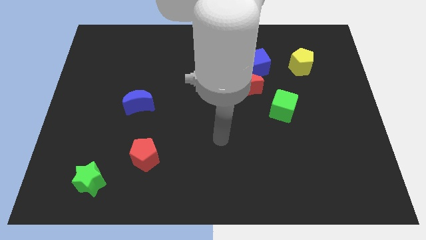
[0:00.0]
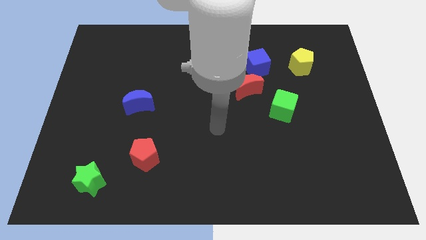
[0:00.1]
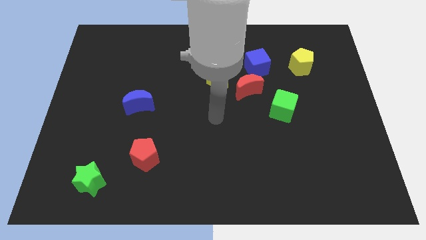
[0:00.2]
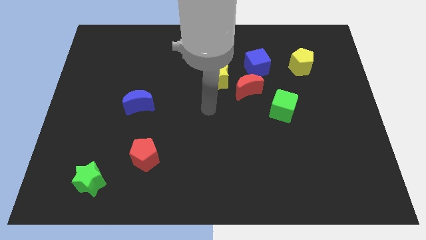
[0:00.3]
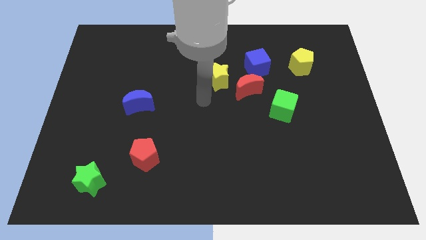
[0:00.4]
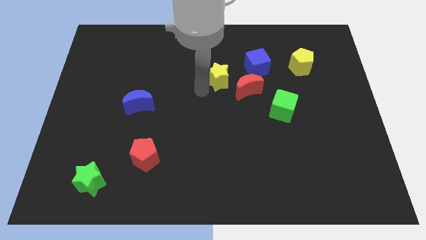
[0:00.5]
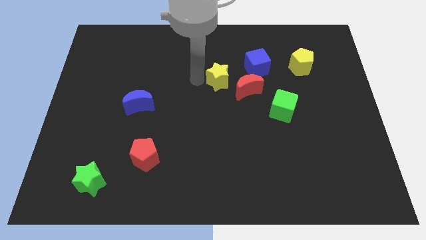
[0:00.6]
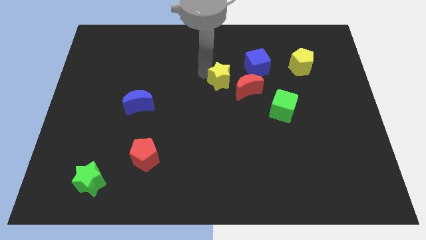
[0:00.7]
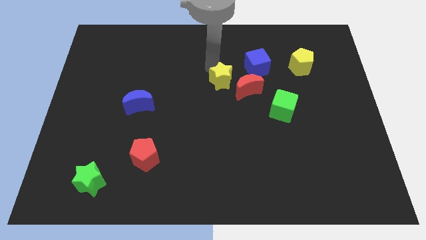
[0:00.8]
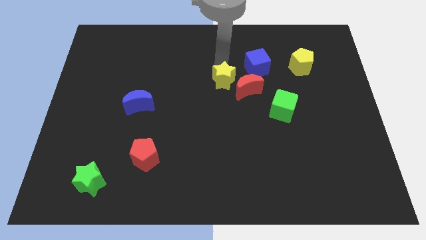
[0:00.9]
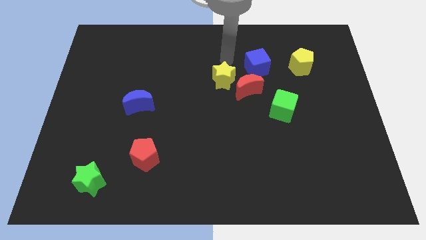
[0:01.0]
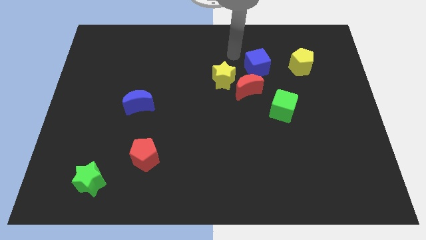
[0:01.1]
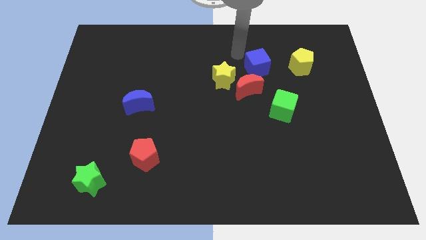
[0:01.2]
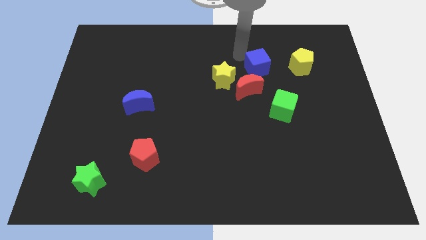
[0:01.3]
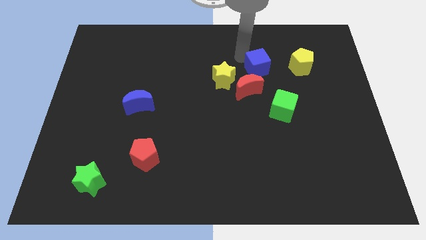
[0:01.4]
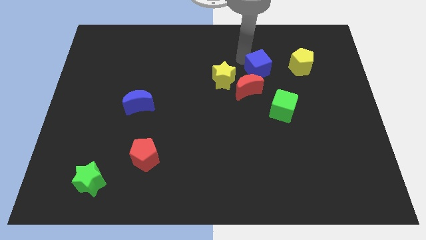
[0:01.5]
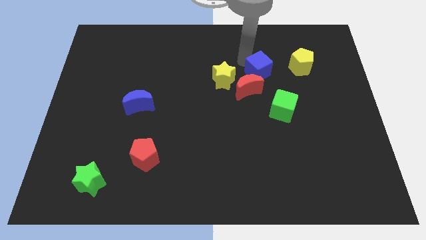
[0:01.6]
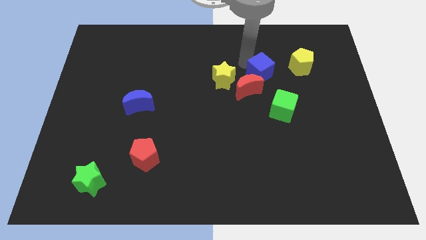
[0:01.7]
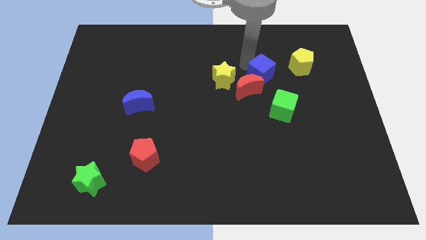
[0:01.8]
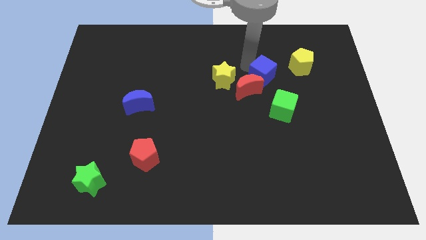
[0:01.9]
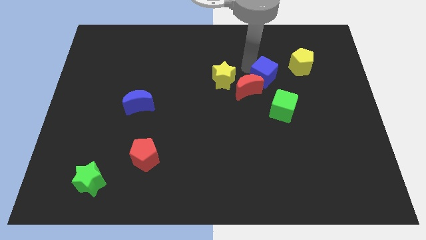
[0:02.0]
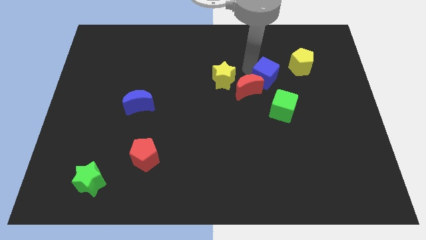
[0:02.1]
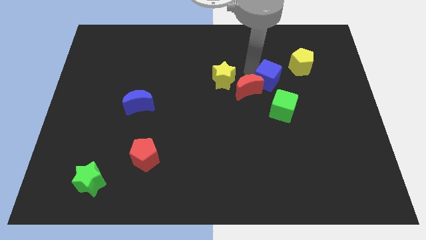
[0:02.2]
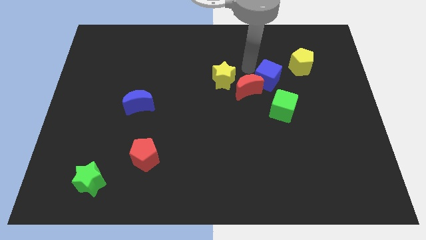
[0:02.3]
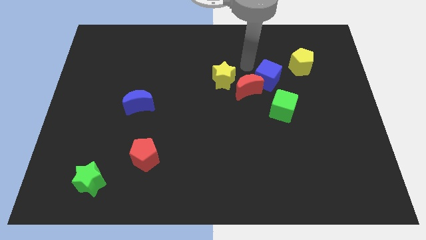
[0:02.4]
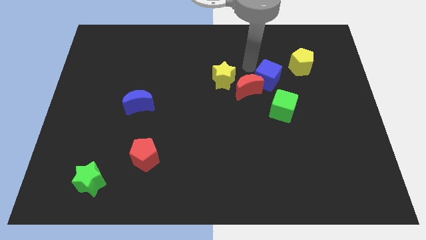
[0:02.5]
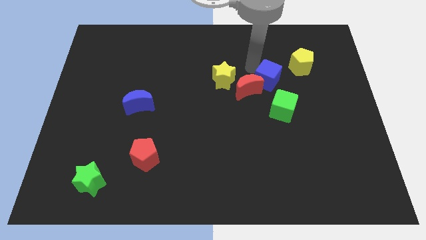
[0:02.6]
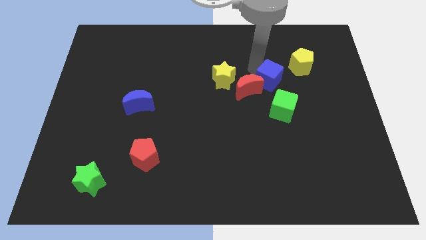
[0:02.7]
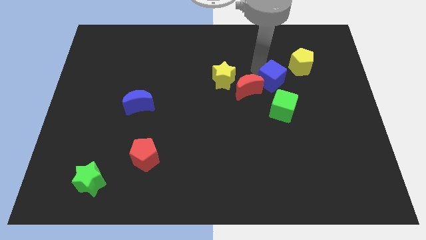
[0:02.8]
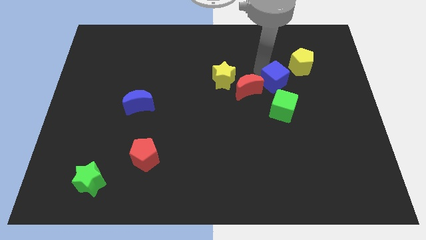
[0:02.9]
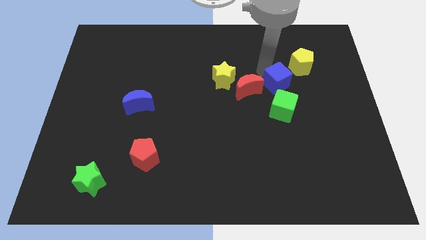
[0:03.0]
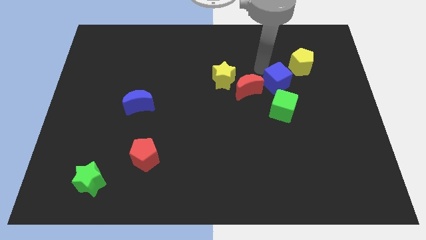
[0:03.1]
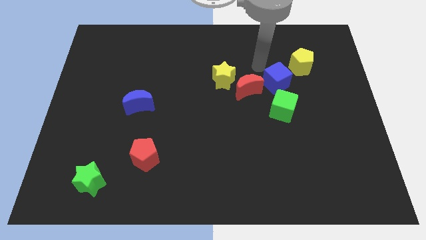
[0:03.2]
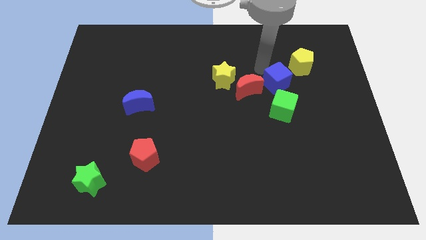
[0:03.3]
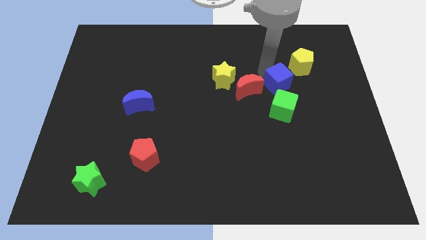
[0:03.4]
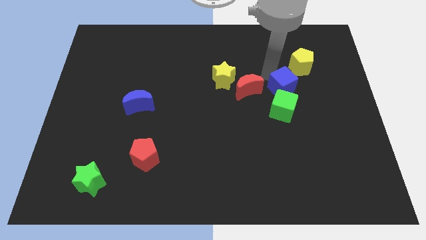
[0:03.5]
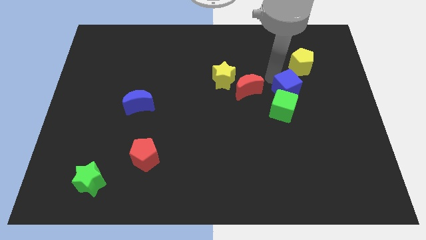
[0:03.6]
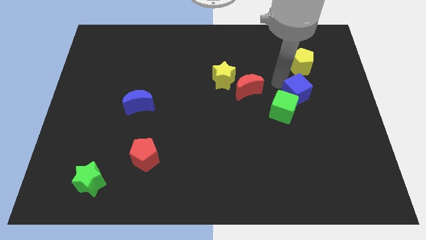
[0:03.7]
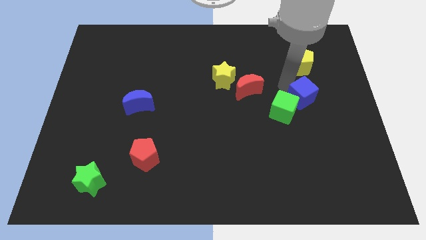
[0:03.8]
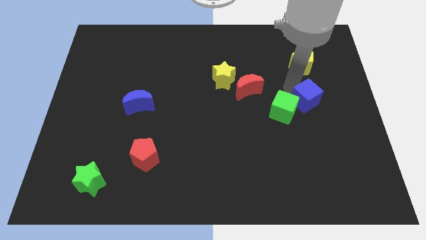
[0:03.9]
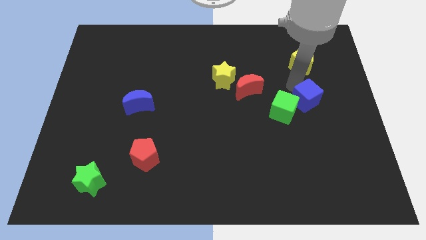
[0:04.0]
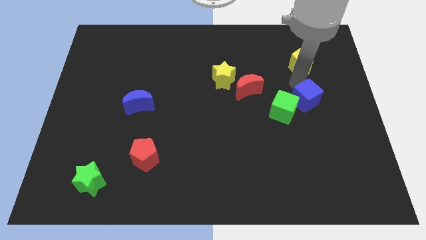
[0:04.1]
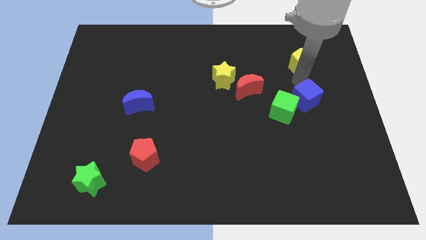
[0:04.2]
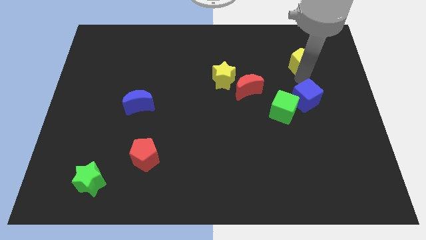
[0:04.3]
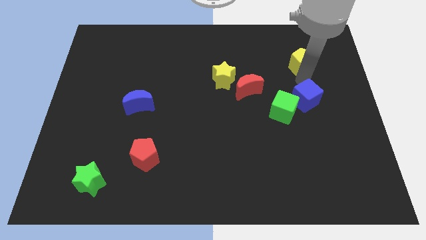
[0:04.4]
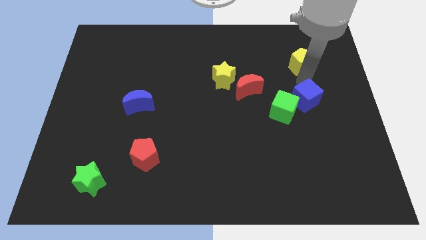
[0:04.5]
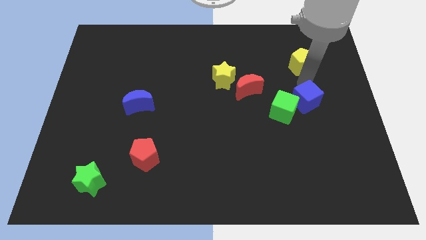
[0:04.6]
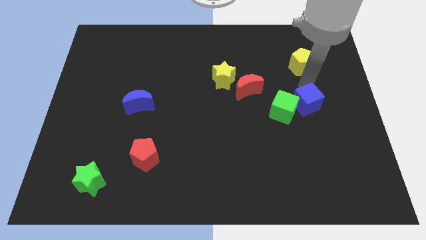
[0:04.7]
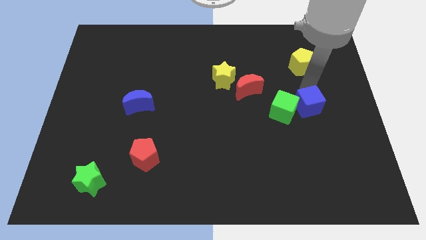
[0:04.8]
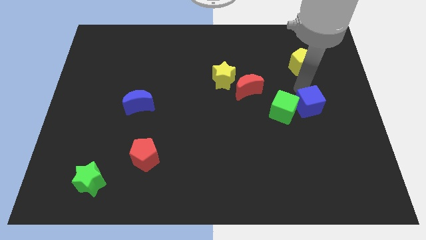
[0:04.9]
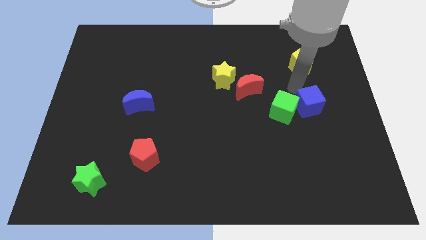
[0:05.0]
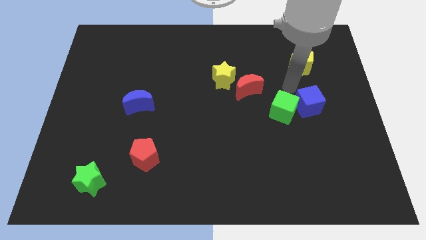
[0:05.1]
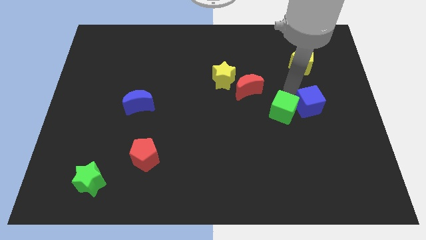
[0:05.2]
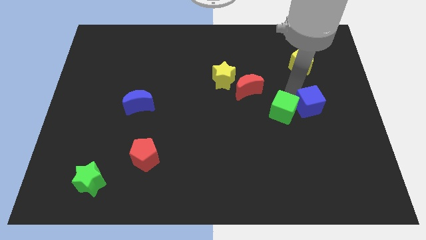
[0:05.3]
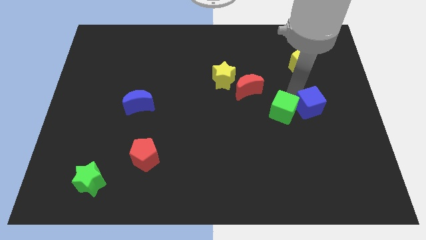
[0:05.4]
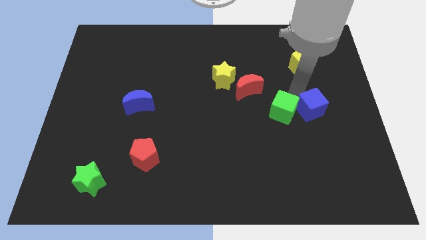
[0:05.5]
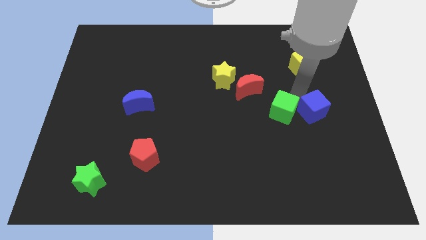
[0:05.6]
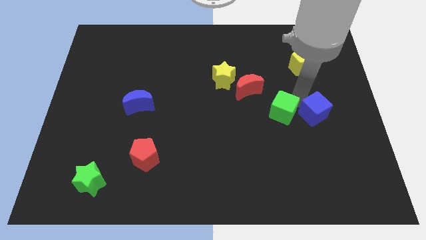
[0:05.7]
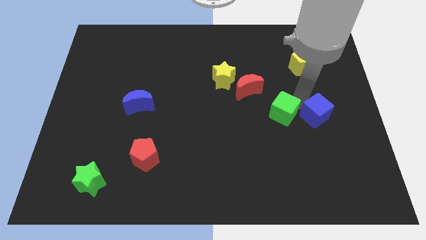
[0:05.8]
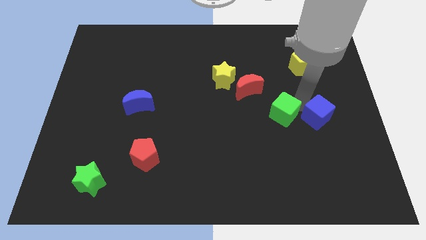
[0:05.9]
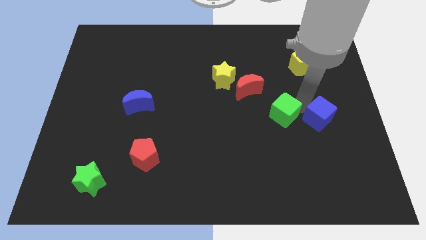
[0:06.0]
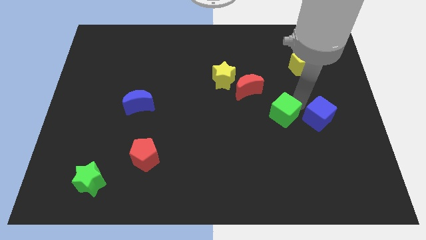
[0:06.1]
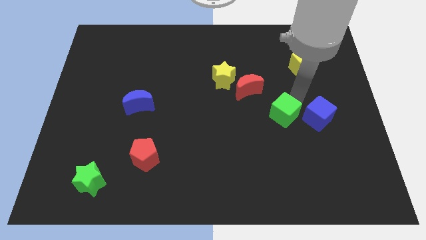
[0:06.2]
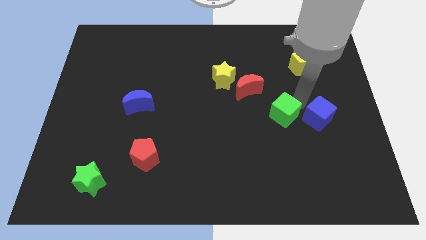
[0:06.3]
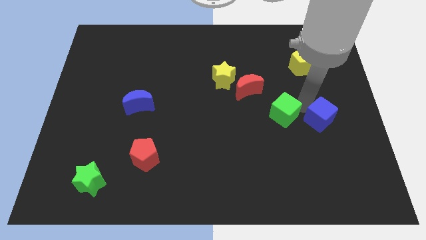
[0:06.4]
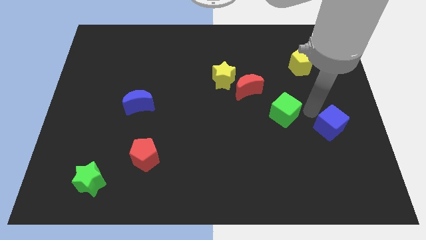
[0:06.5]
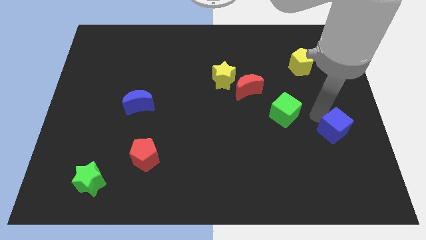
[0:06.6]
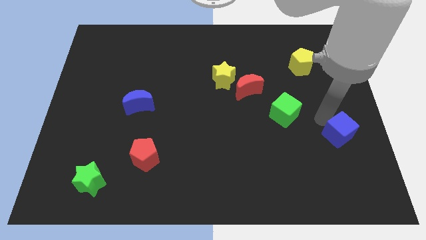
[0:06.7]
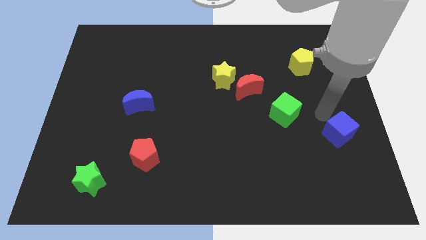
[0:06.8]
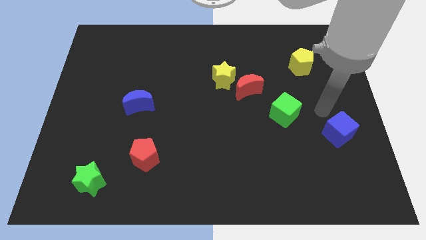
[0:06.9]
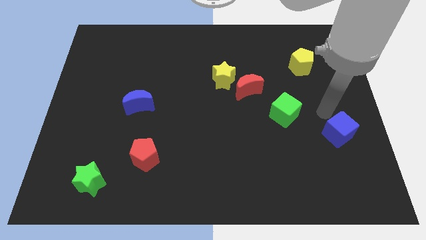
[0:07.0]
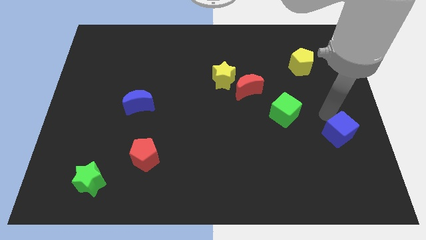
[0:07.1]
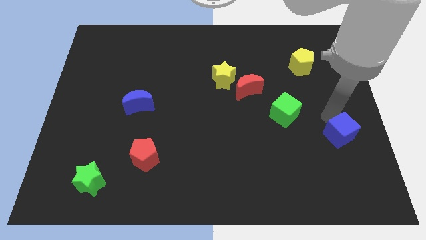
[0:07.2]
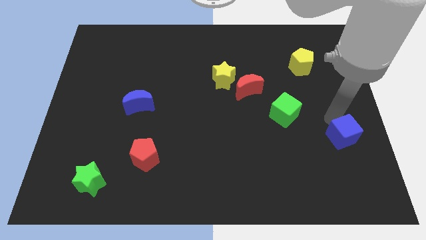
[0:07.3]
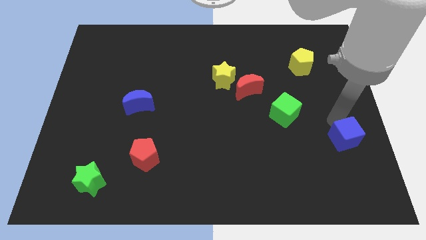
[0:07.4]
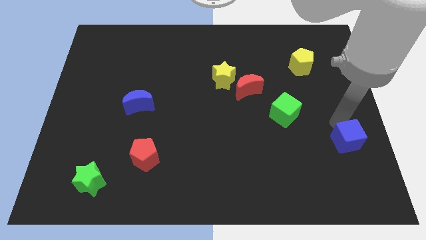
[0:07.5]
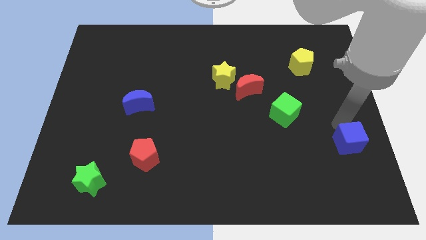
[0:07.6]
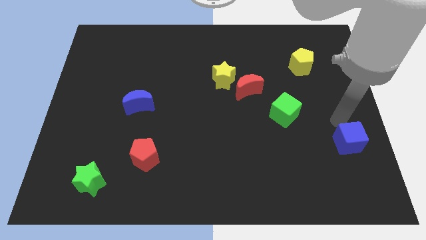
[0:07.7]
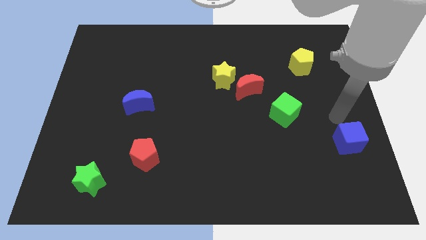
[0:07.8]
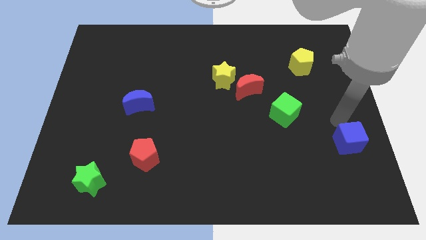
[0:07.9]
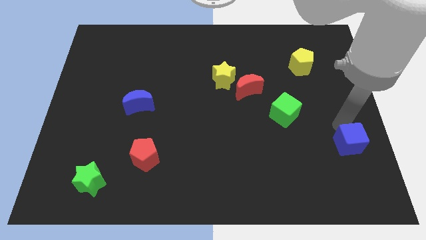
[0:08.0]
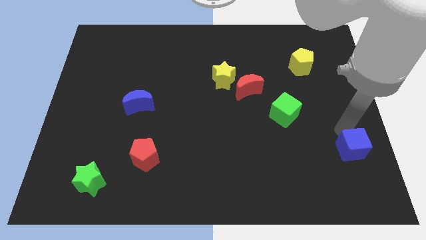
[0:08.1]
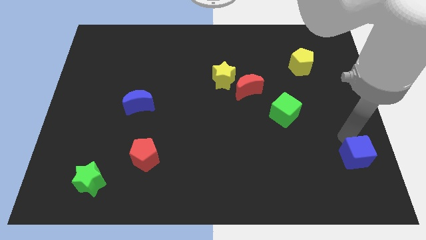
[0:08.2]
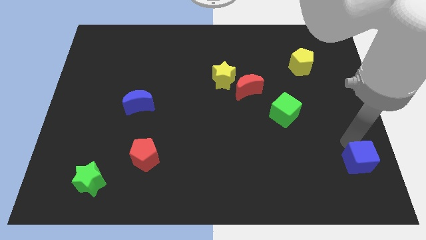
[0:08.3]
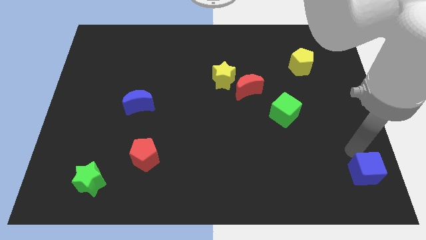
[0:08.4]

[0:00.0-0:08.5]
push the blue cube to the lower right corner
